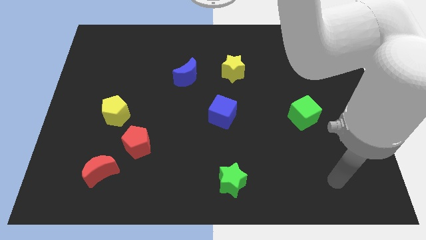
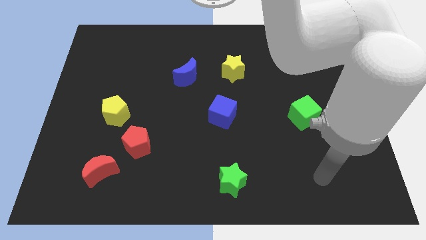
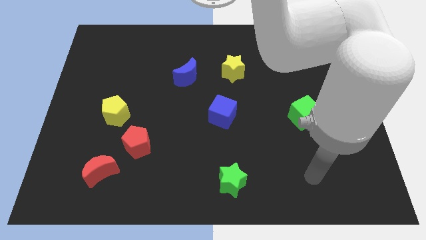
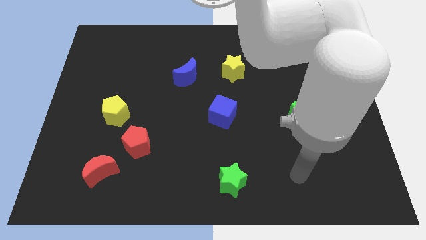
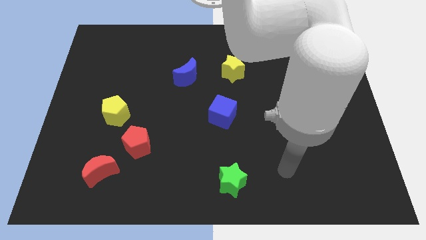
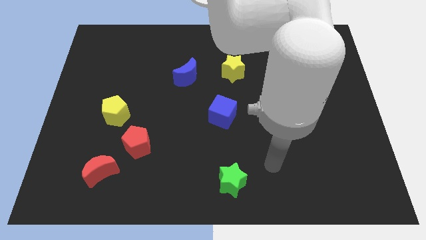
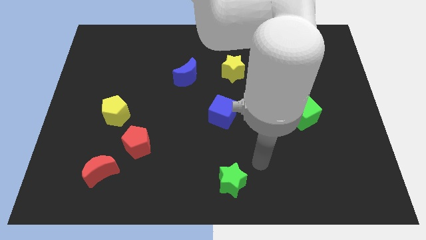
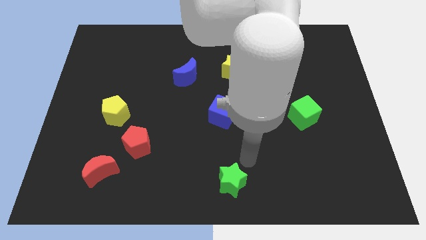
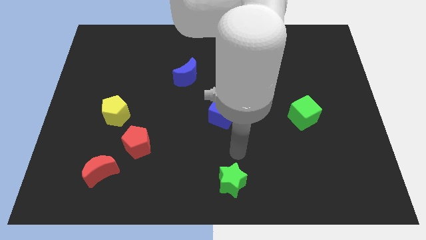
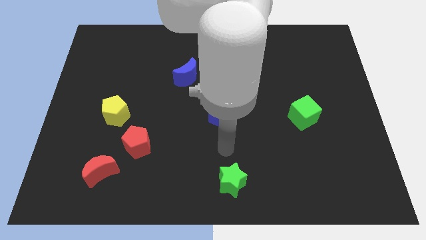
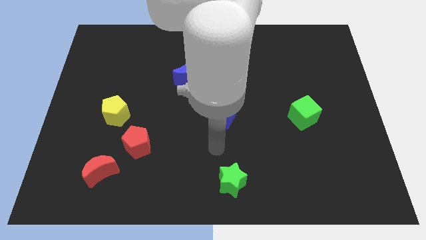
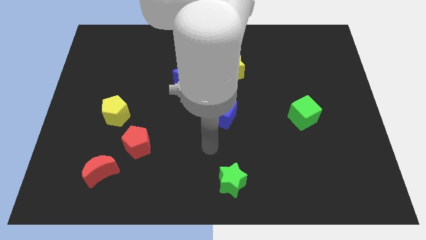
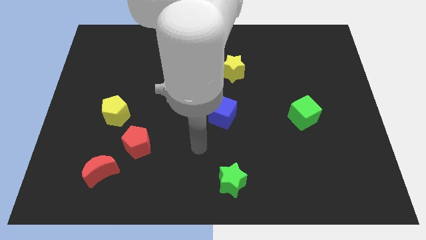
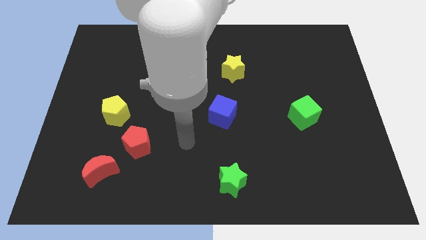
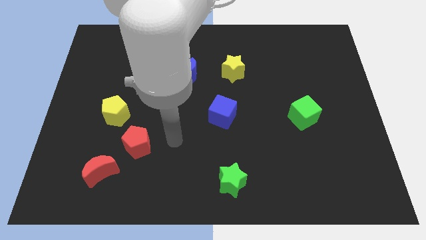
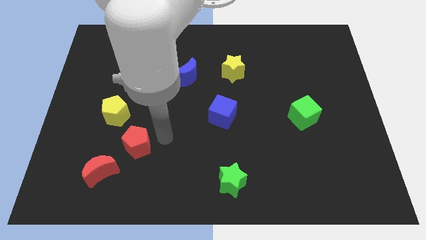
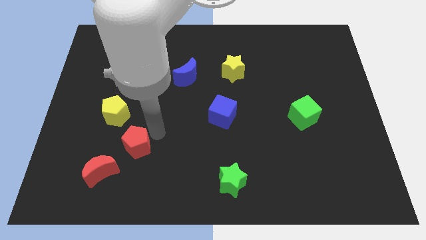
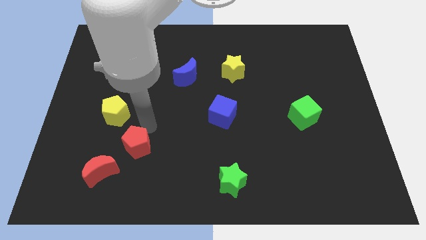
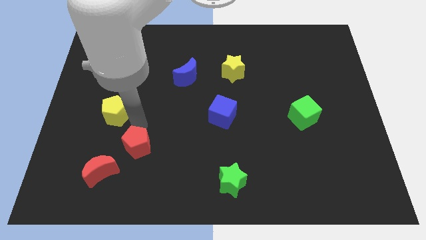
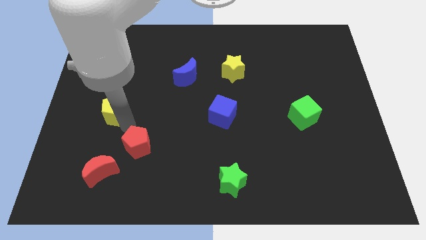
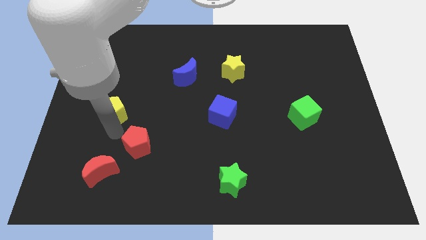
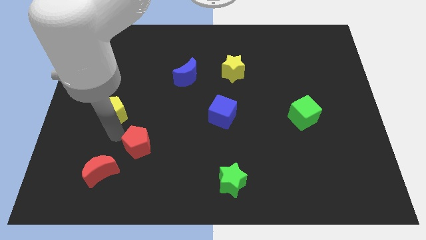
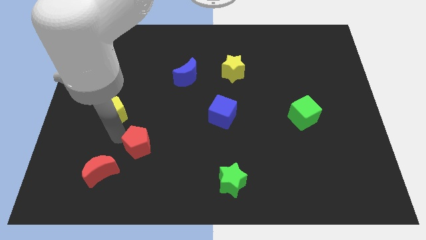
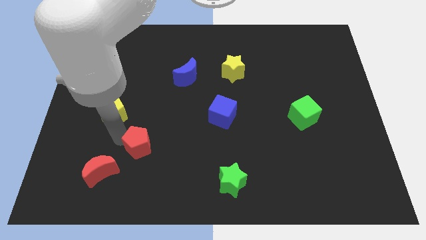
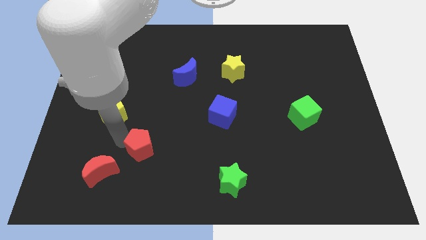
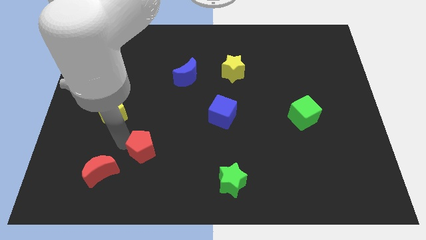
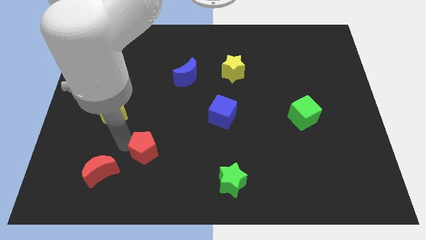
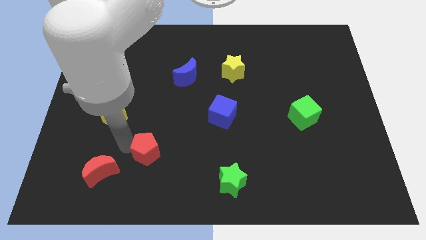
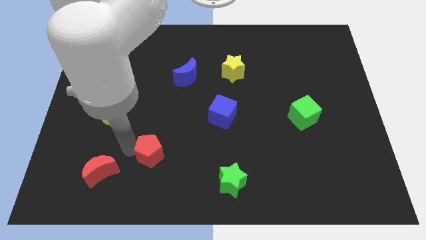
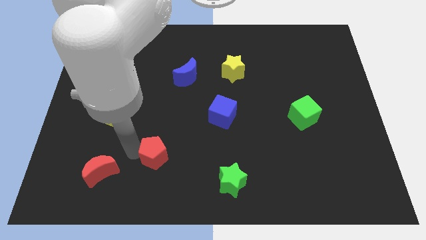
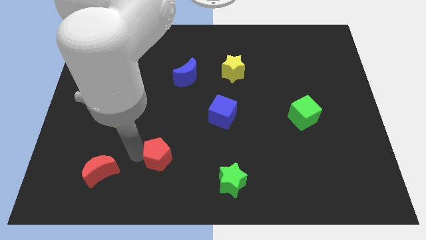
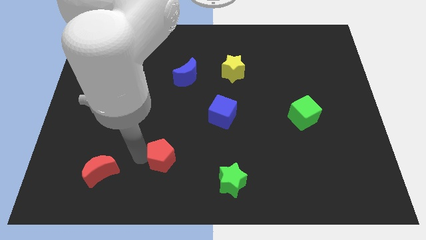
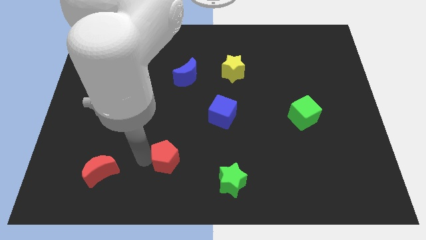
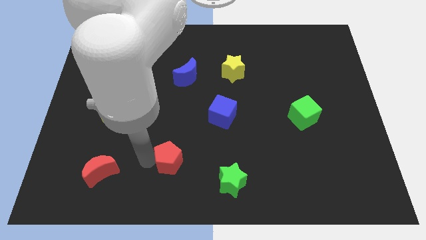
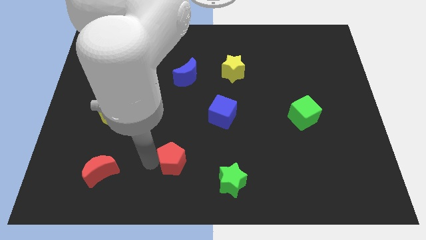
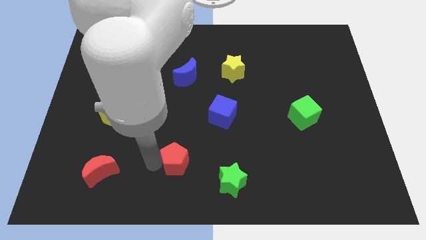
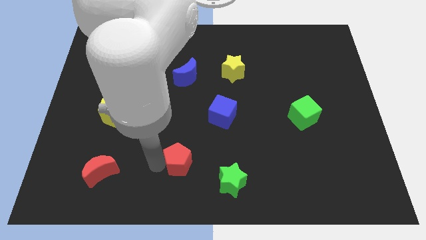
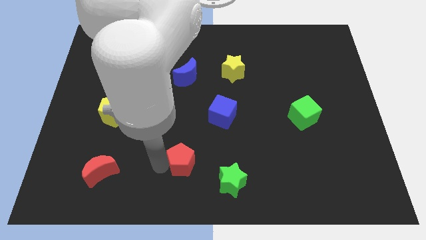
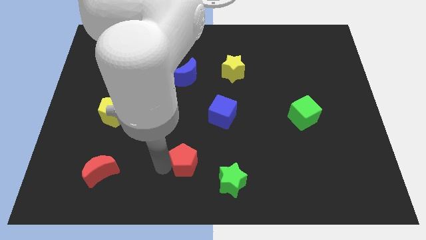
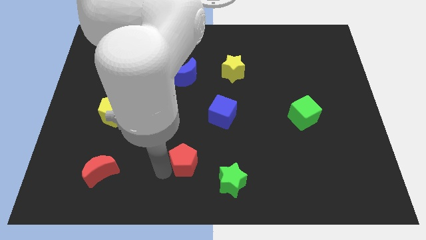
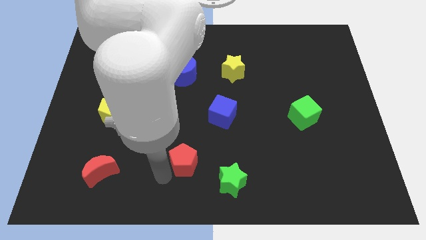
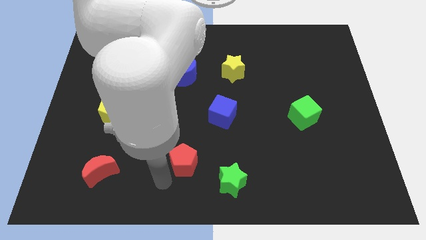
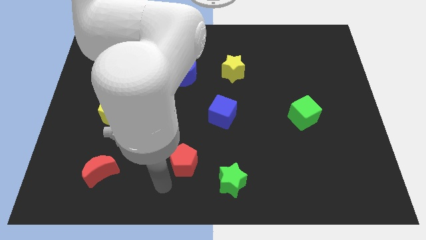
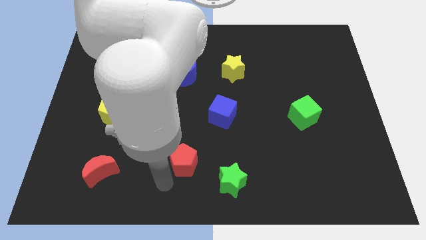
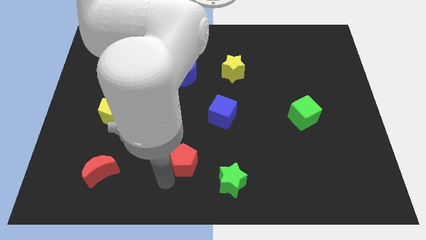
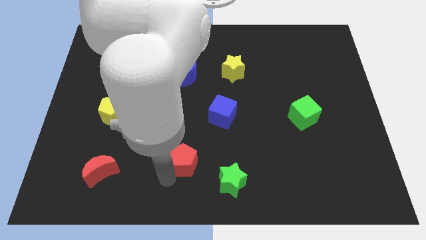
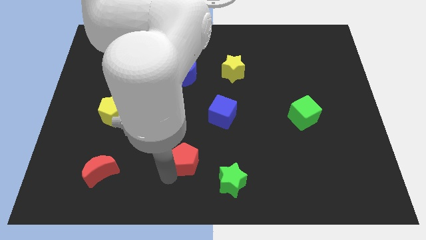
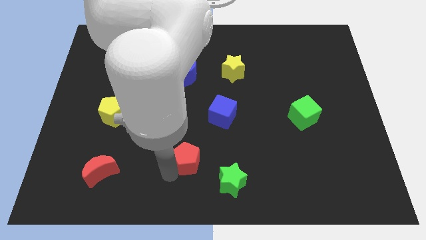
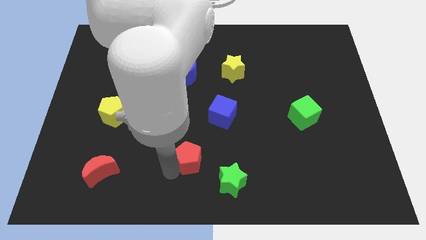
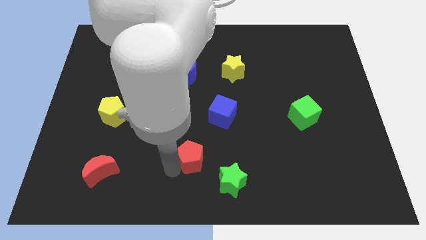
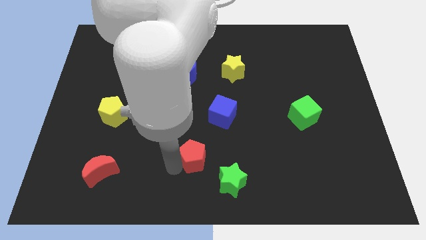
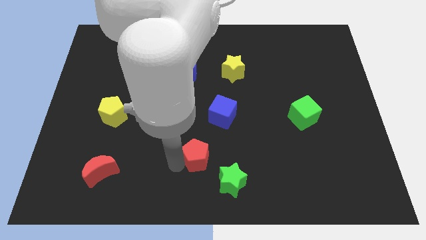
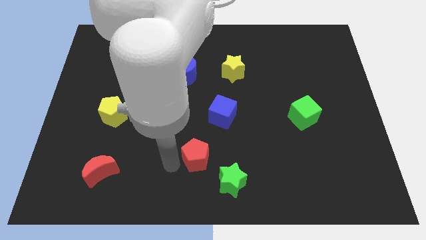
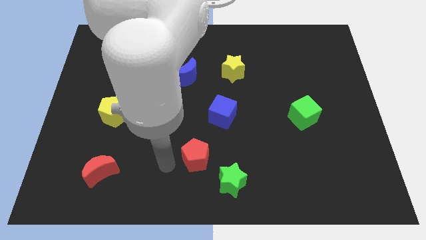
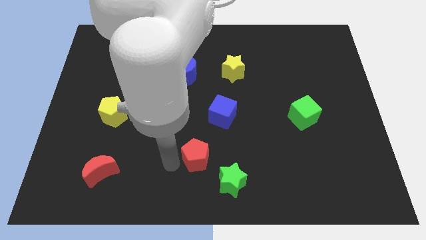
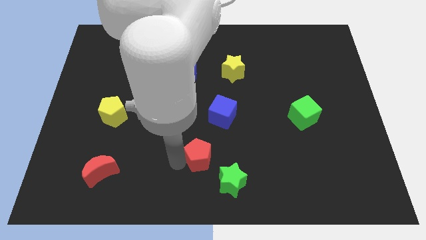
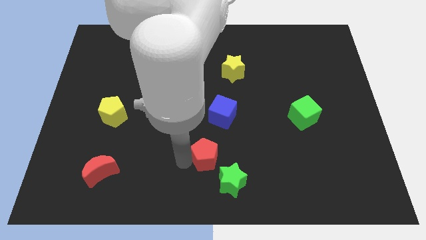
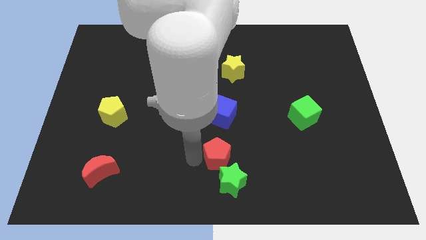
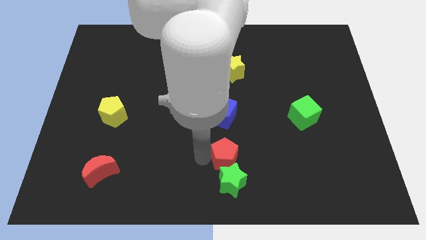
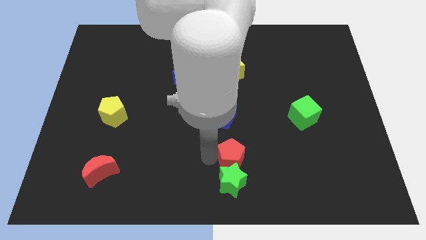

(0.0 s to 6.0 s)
push the red pentagon to the right

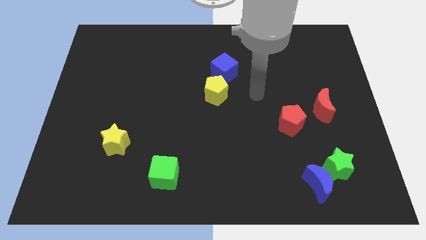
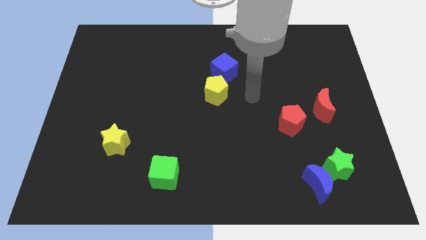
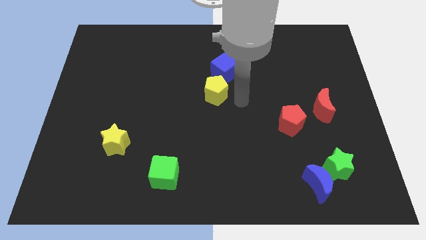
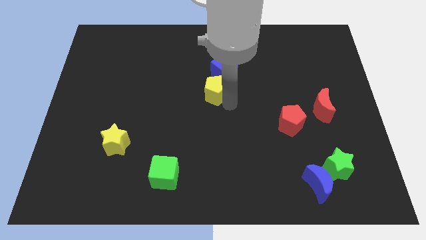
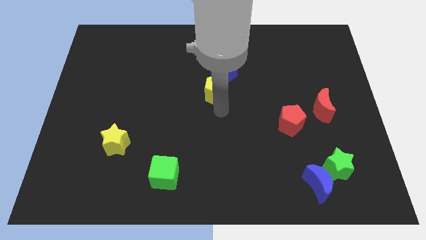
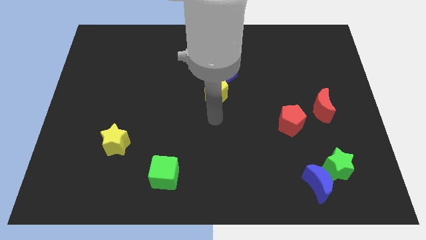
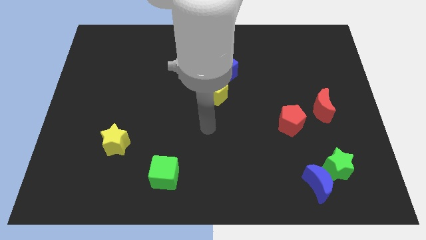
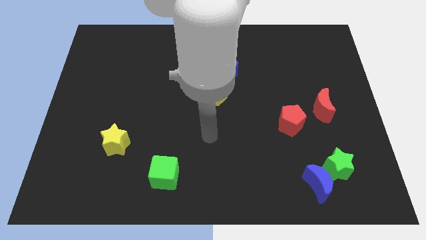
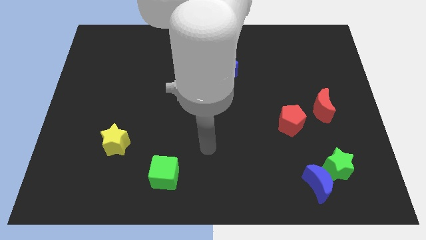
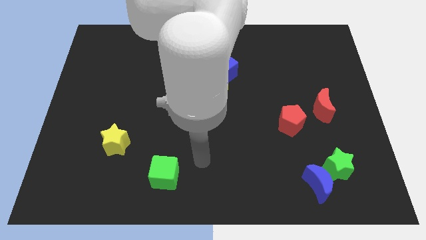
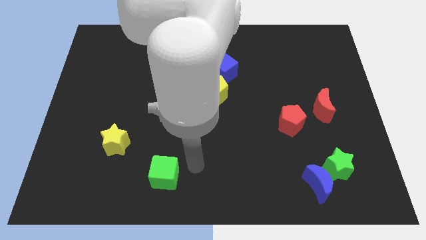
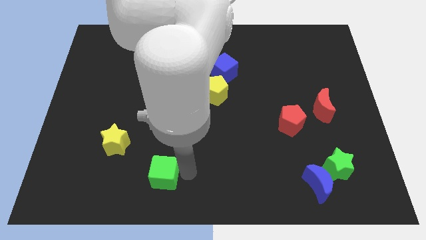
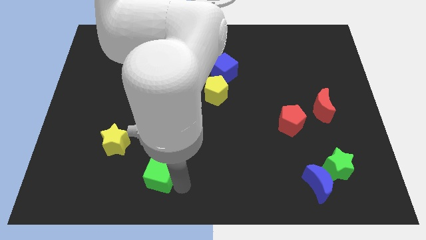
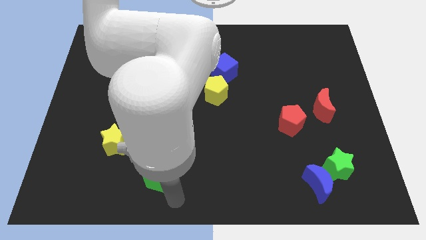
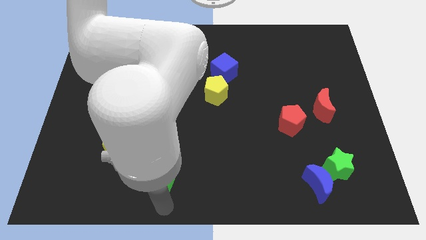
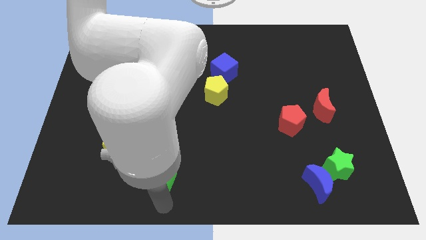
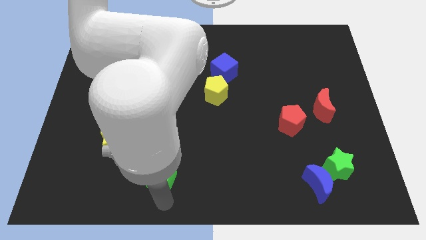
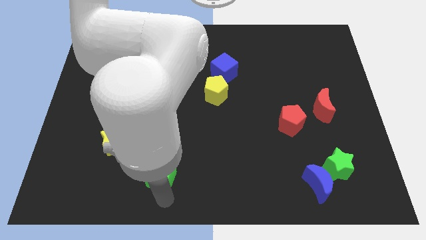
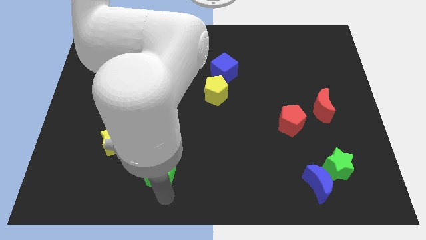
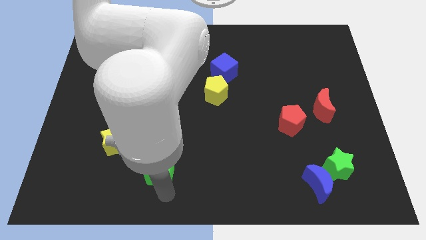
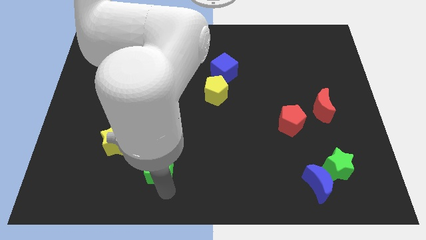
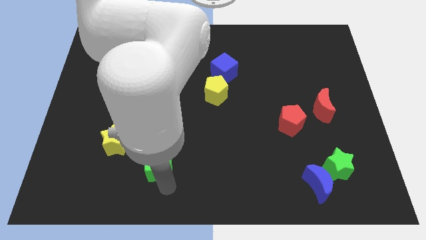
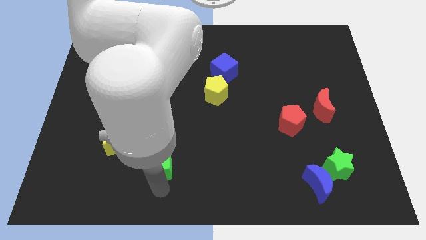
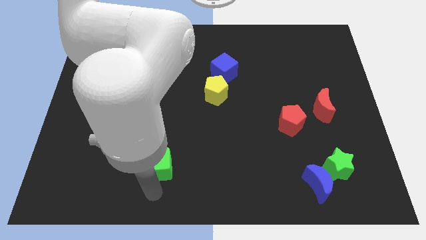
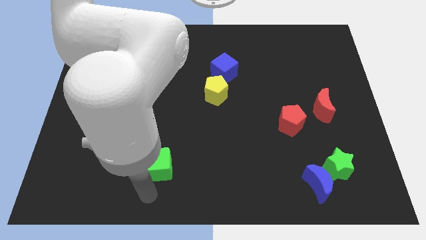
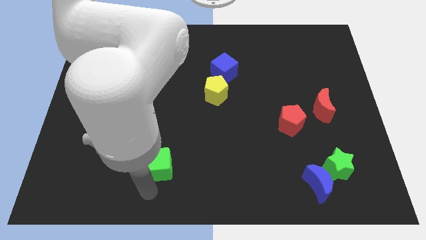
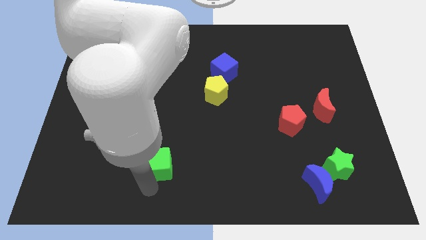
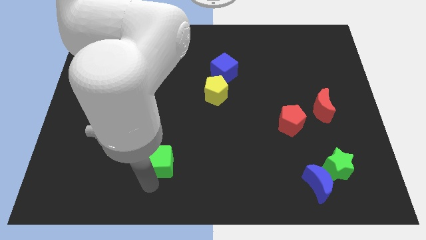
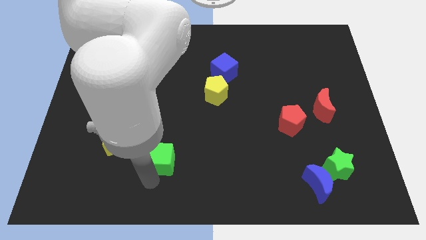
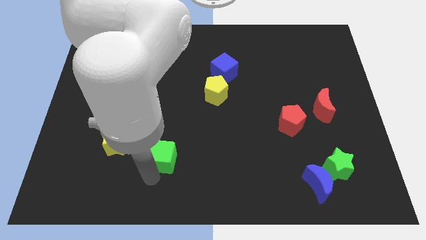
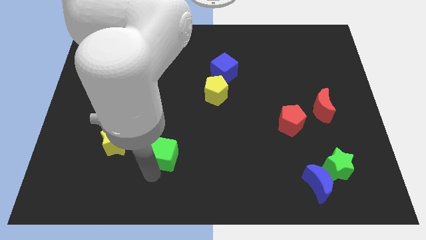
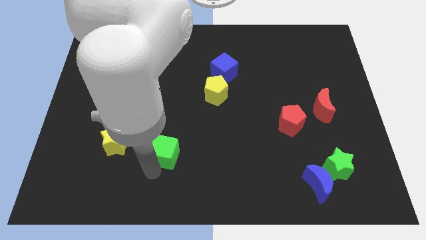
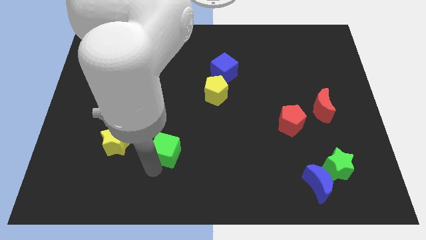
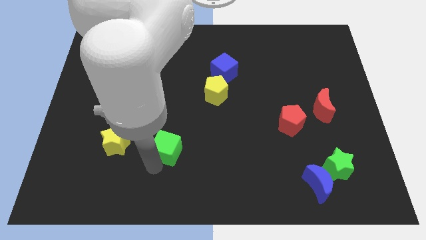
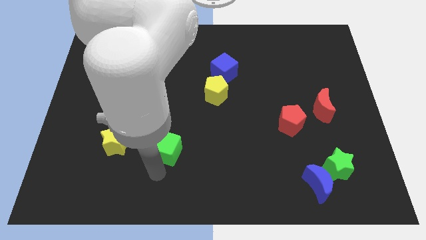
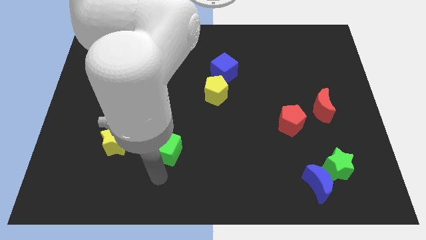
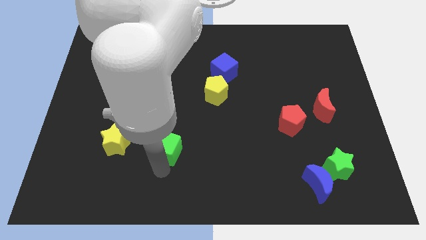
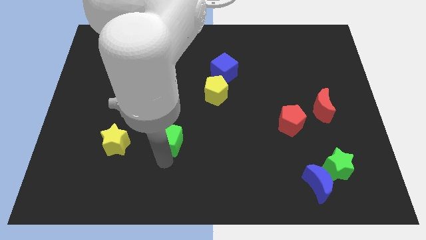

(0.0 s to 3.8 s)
move the green cube upwards somewhat
